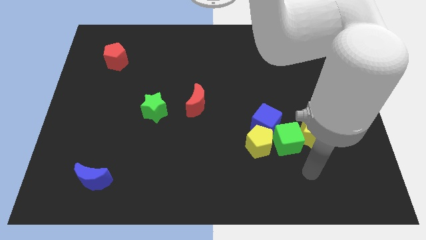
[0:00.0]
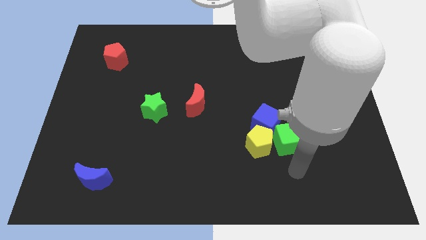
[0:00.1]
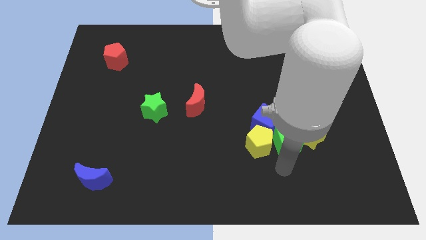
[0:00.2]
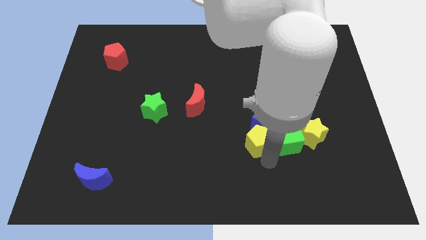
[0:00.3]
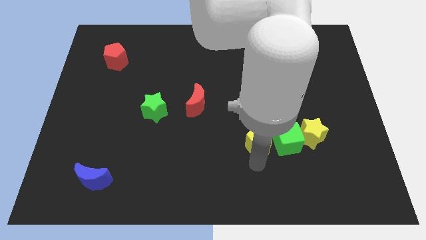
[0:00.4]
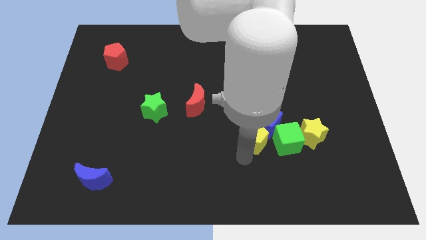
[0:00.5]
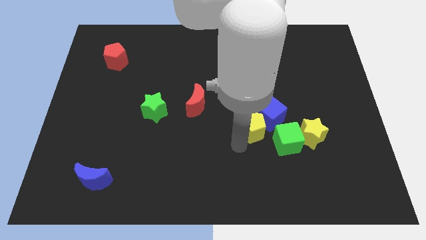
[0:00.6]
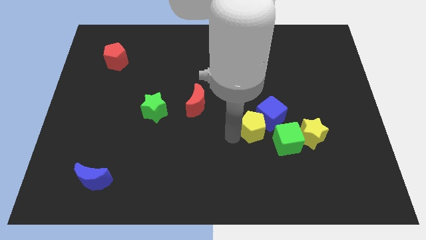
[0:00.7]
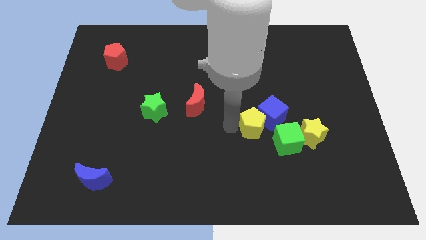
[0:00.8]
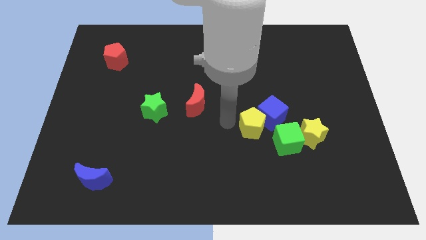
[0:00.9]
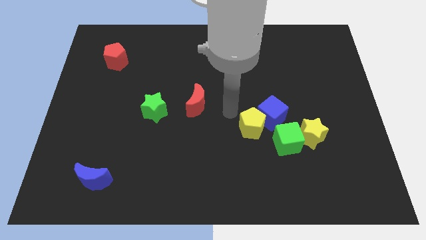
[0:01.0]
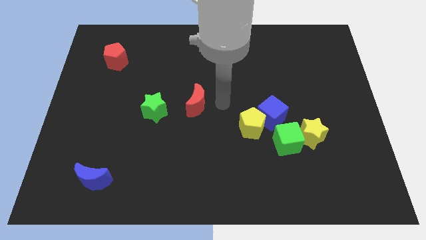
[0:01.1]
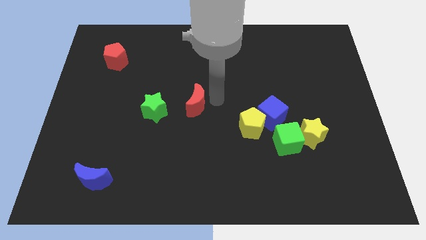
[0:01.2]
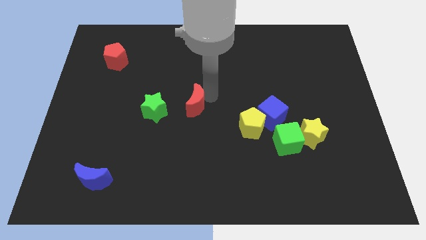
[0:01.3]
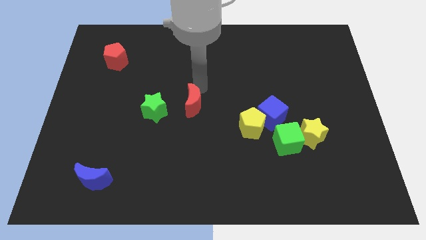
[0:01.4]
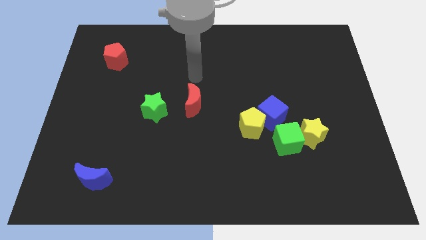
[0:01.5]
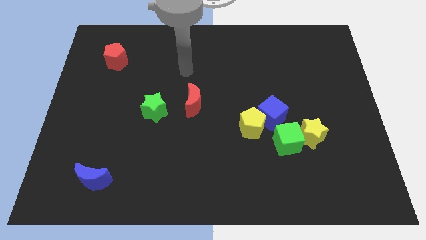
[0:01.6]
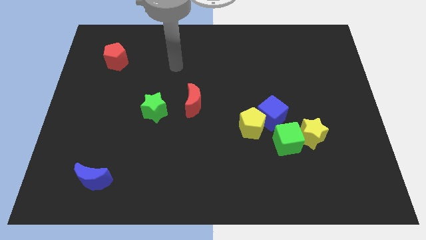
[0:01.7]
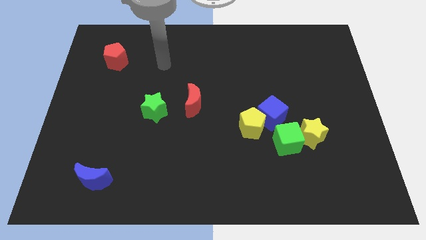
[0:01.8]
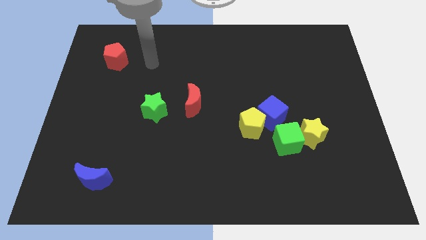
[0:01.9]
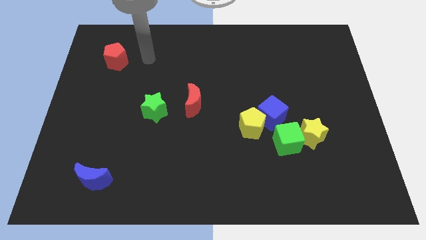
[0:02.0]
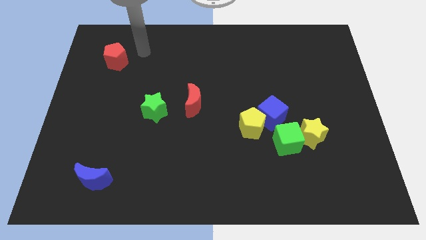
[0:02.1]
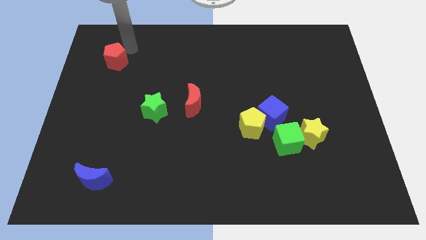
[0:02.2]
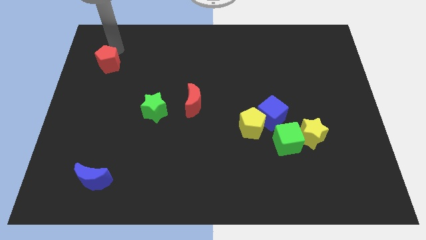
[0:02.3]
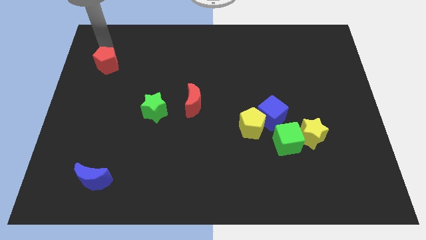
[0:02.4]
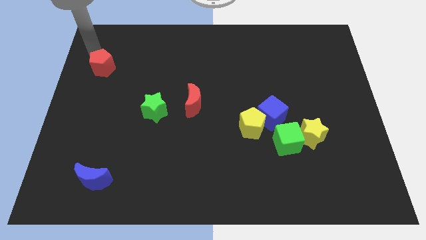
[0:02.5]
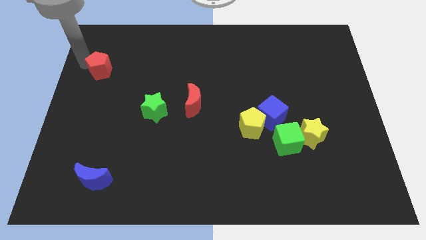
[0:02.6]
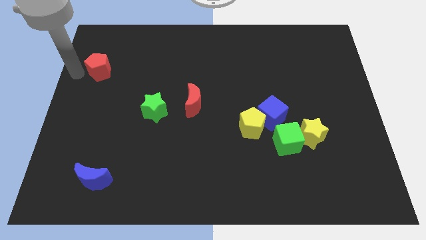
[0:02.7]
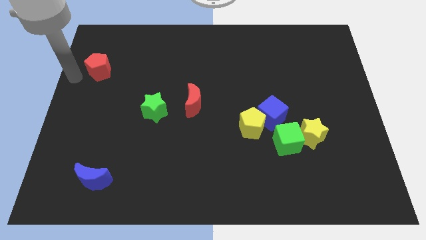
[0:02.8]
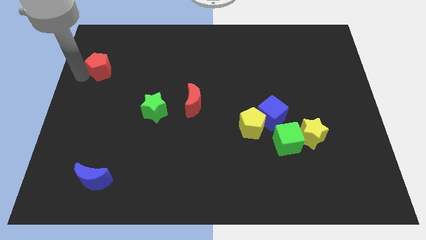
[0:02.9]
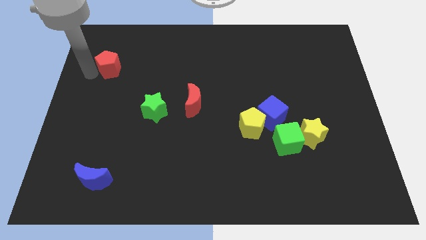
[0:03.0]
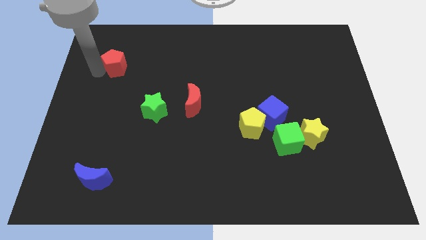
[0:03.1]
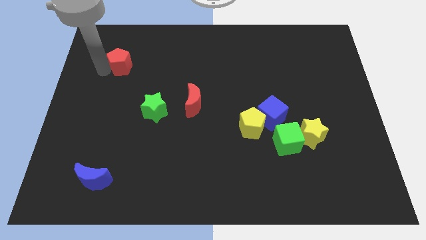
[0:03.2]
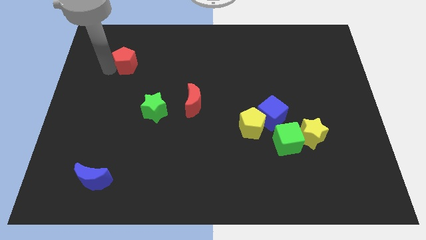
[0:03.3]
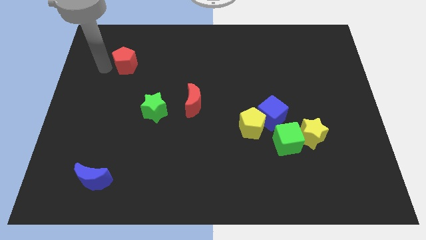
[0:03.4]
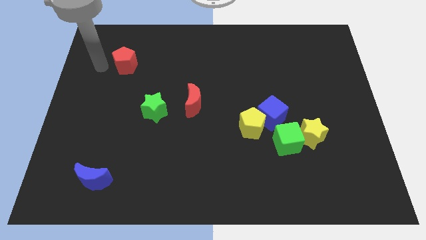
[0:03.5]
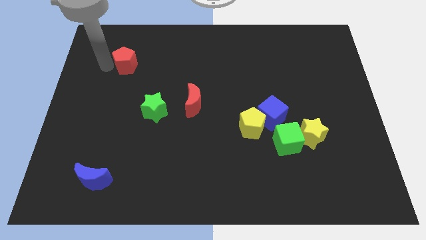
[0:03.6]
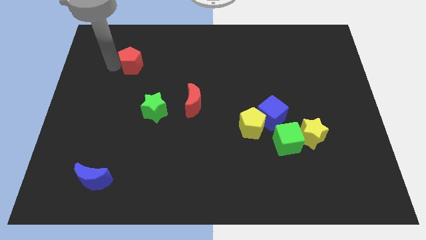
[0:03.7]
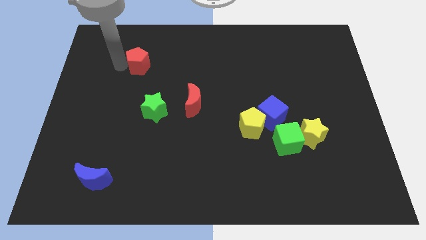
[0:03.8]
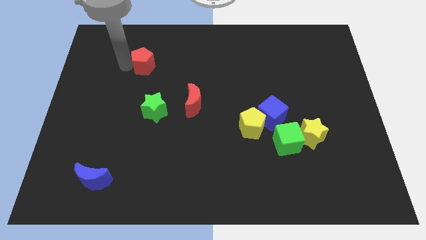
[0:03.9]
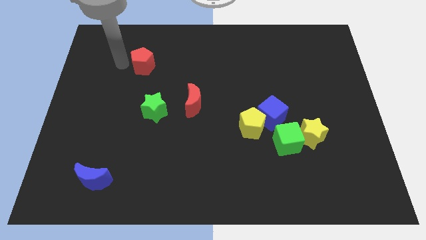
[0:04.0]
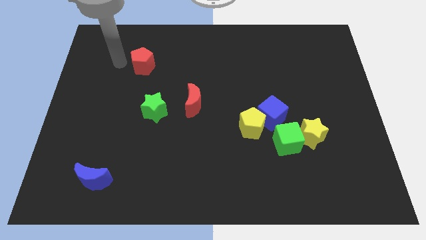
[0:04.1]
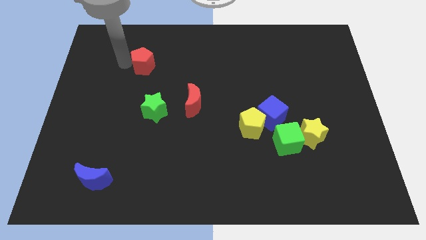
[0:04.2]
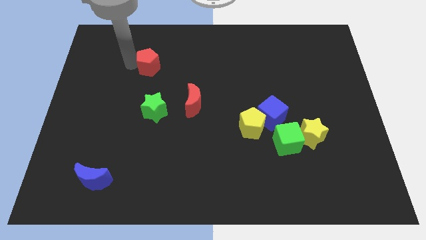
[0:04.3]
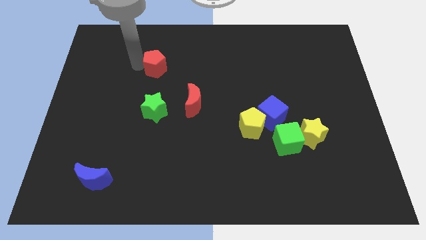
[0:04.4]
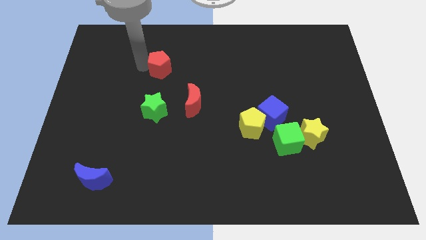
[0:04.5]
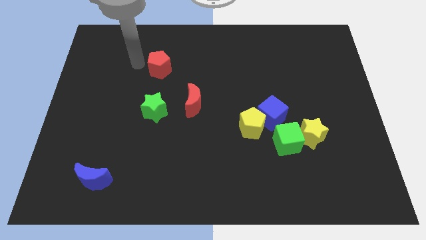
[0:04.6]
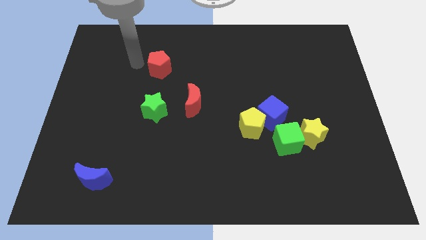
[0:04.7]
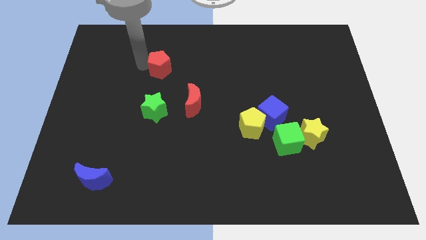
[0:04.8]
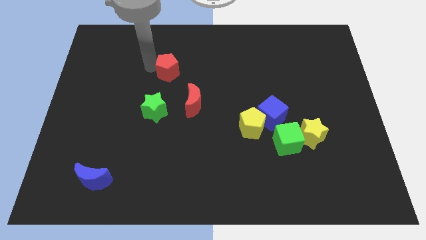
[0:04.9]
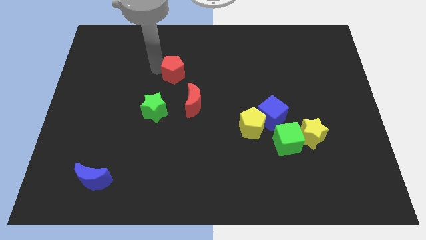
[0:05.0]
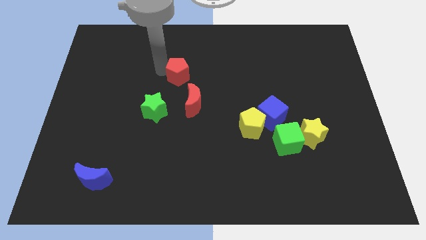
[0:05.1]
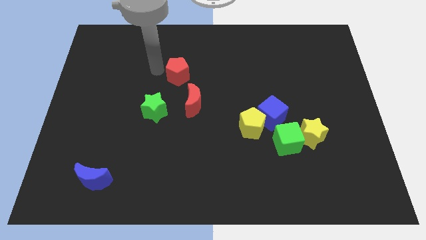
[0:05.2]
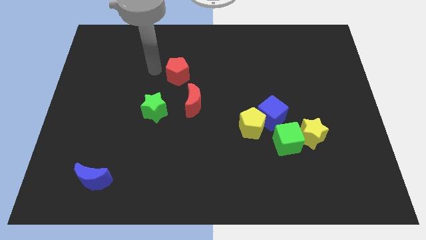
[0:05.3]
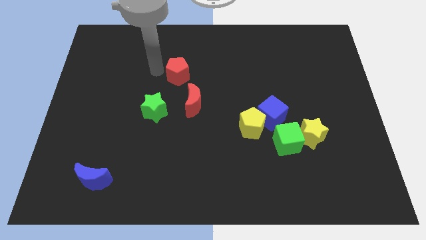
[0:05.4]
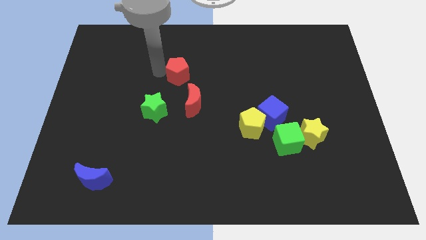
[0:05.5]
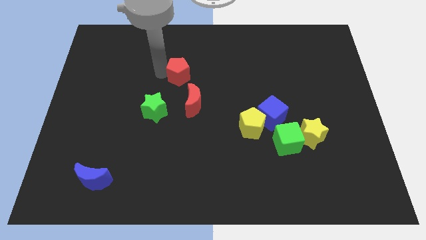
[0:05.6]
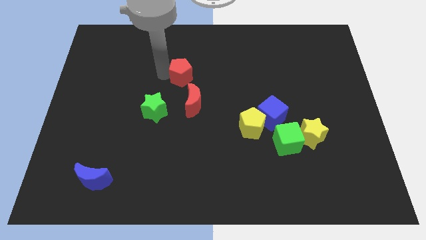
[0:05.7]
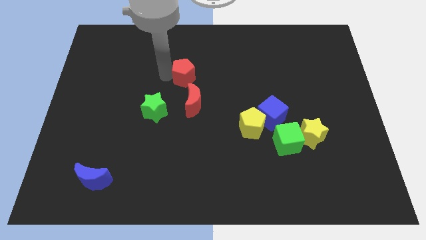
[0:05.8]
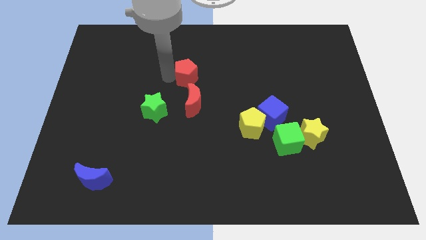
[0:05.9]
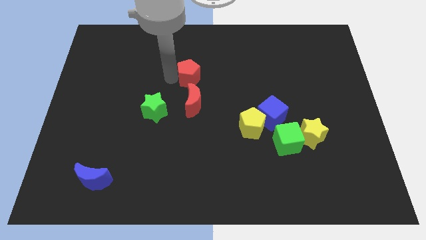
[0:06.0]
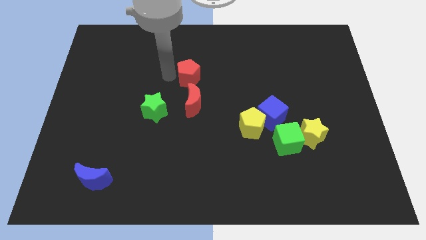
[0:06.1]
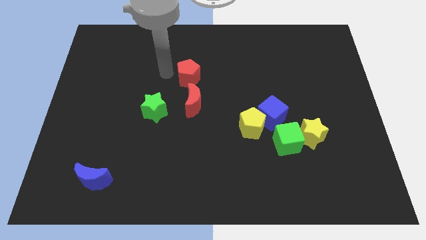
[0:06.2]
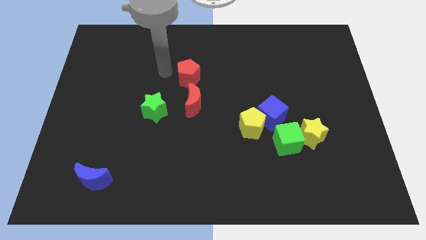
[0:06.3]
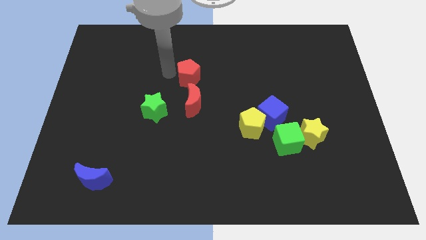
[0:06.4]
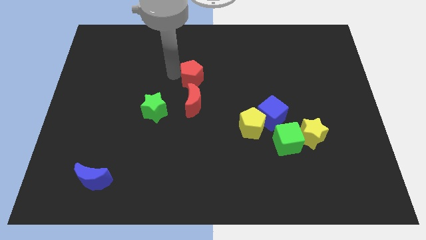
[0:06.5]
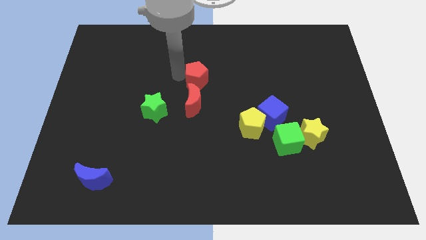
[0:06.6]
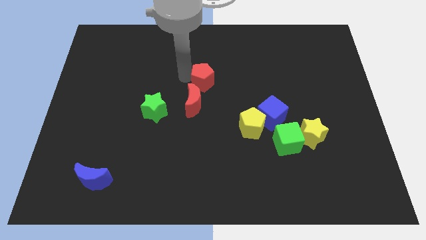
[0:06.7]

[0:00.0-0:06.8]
push the red pentagon diagonally up and to the right of the red moon

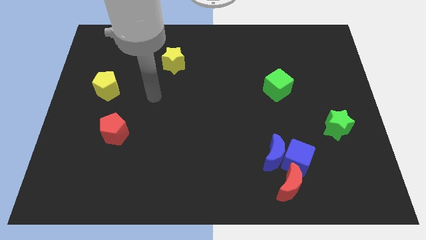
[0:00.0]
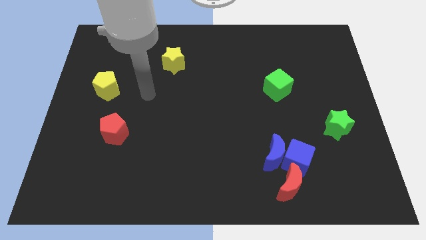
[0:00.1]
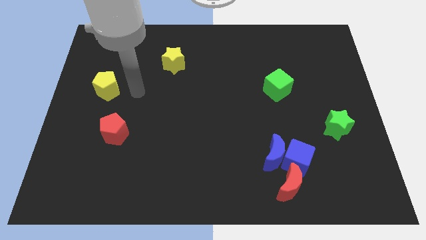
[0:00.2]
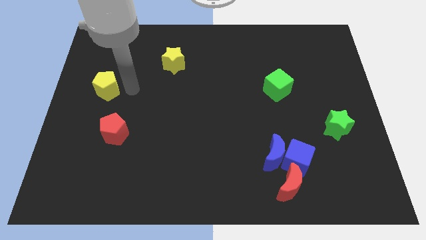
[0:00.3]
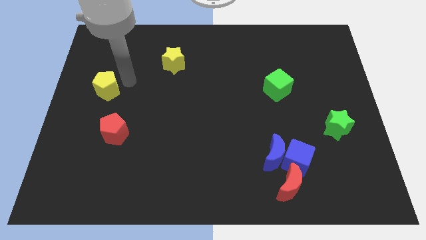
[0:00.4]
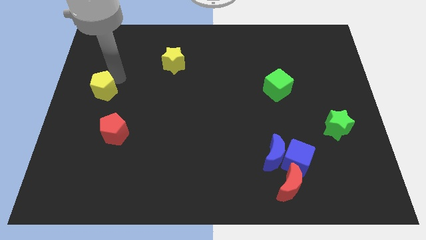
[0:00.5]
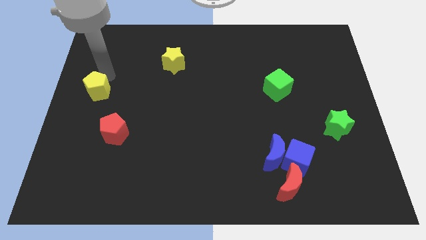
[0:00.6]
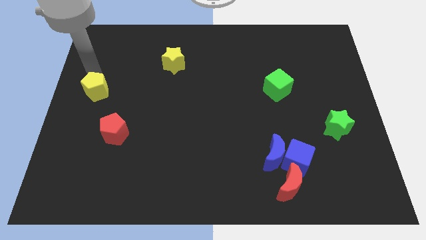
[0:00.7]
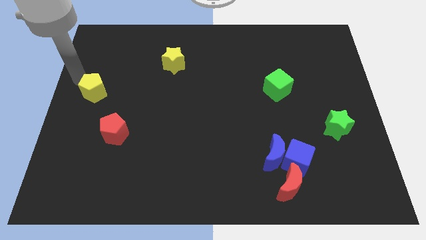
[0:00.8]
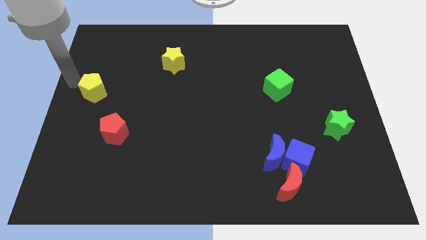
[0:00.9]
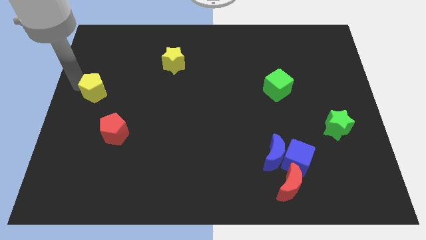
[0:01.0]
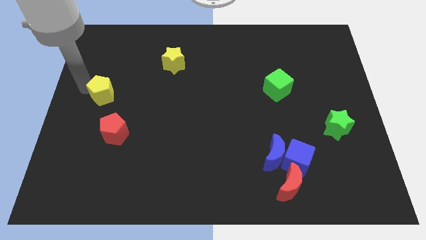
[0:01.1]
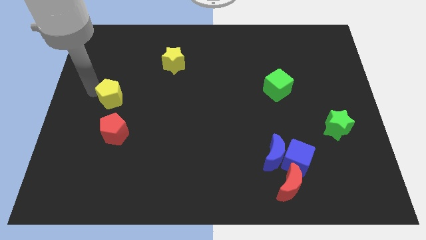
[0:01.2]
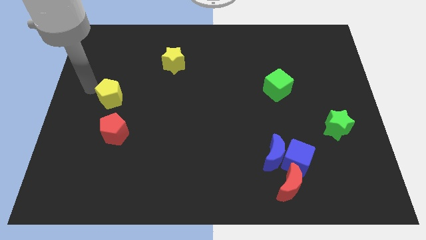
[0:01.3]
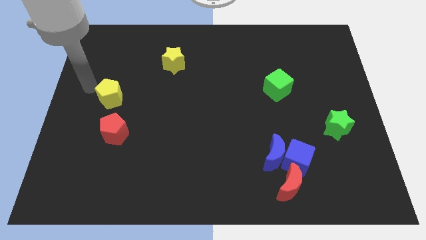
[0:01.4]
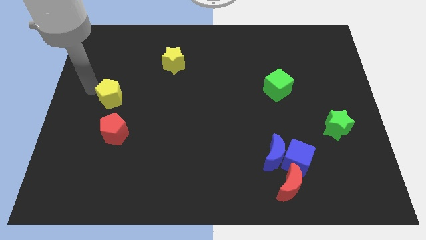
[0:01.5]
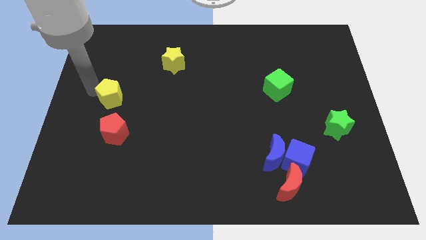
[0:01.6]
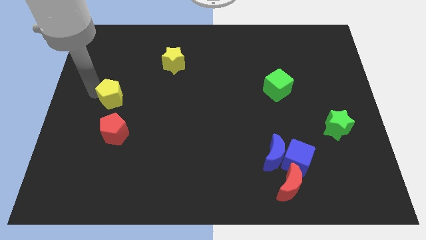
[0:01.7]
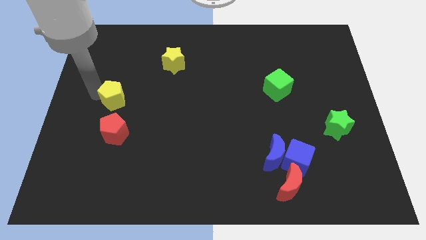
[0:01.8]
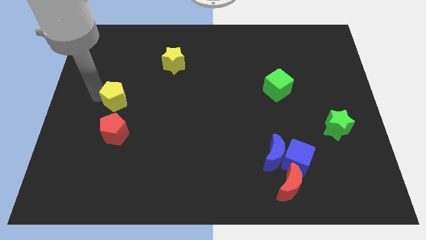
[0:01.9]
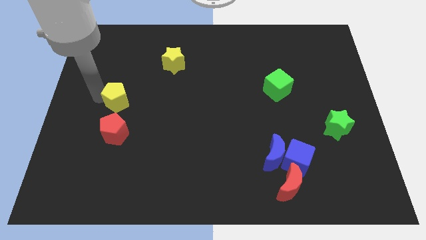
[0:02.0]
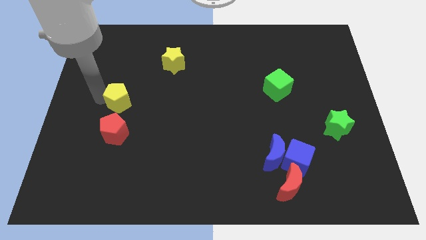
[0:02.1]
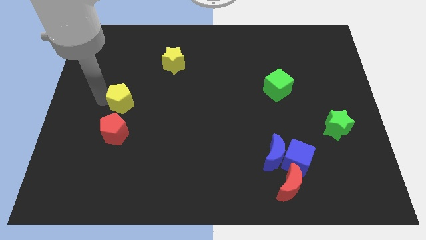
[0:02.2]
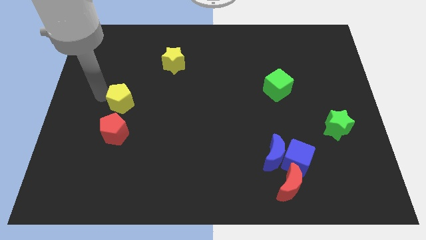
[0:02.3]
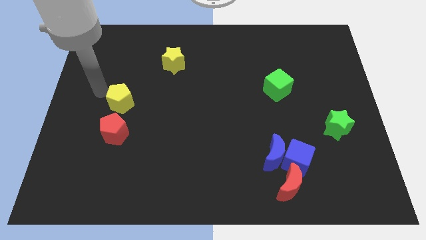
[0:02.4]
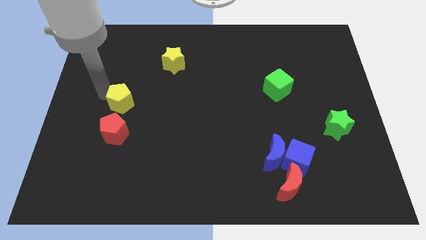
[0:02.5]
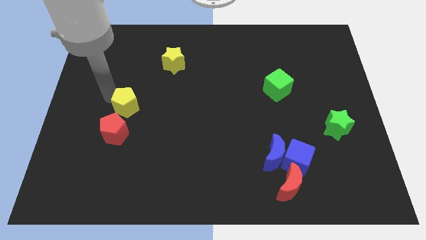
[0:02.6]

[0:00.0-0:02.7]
put the yellow pentagon to the top right of the red pentagon
